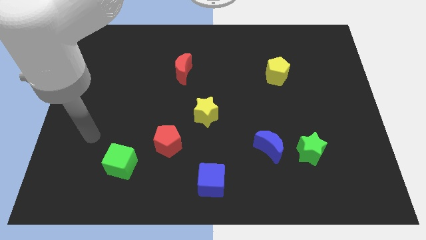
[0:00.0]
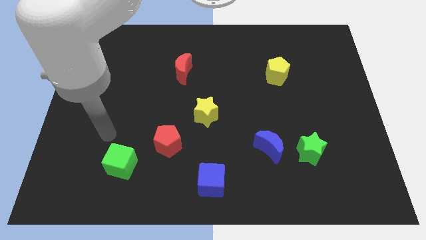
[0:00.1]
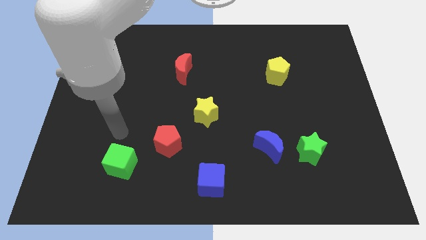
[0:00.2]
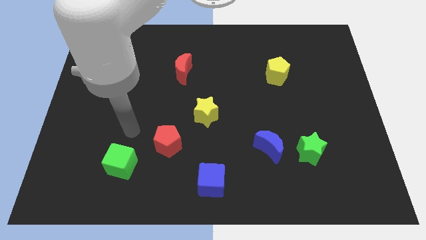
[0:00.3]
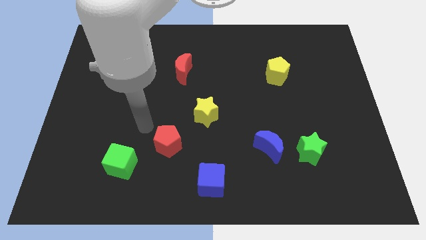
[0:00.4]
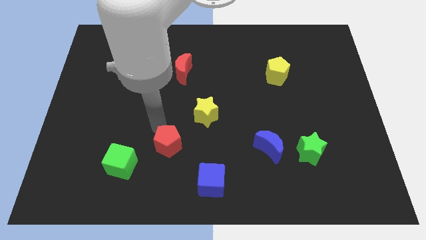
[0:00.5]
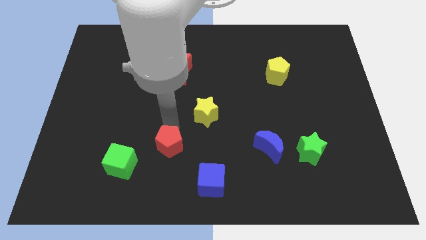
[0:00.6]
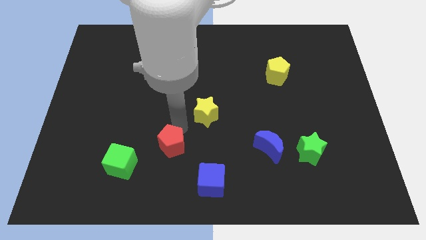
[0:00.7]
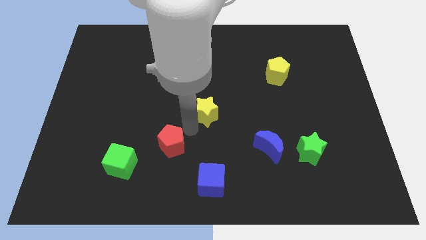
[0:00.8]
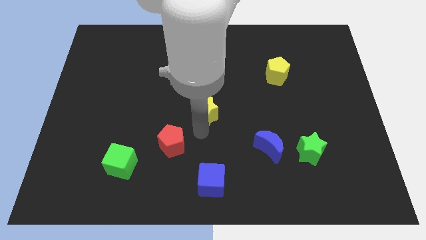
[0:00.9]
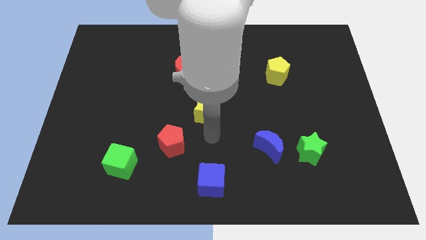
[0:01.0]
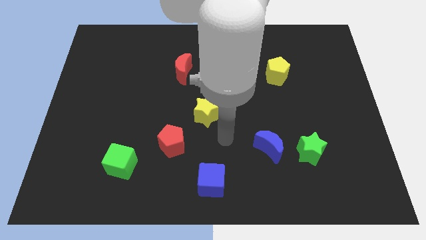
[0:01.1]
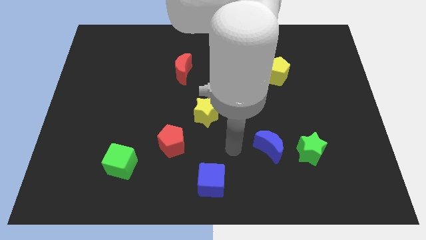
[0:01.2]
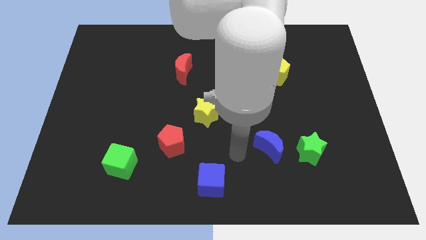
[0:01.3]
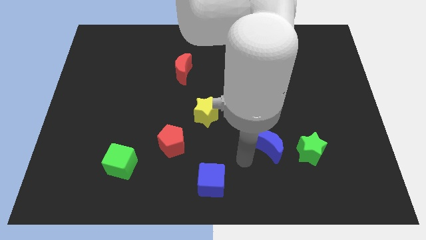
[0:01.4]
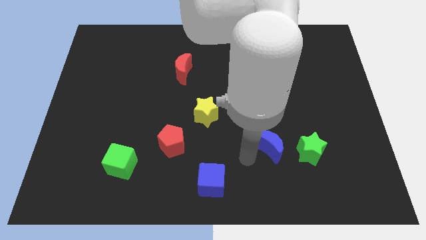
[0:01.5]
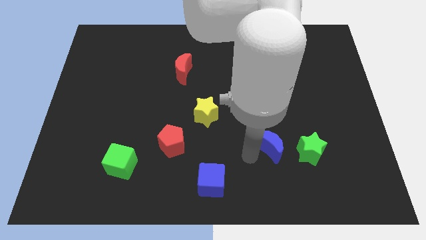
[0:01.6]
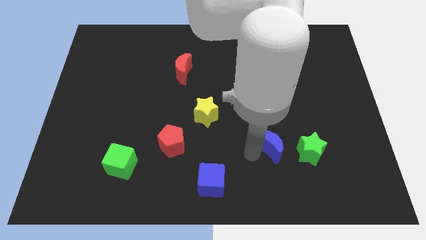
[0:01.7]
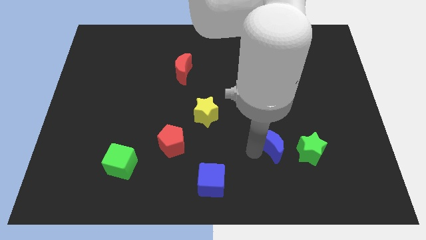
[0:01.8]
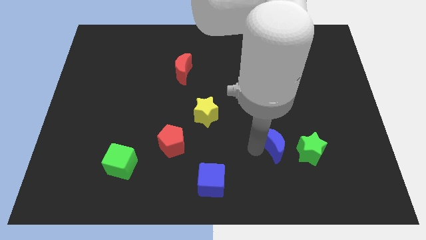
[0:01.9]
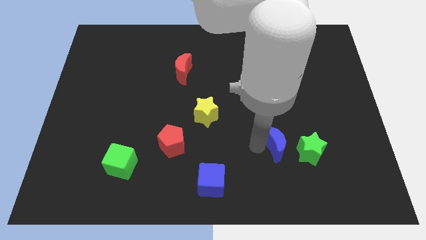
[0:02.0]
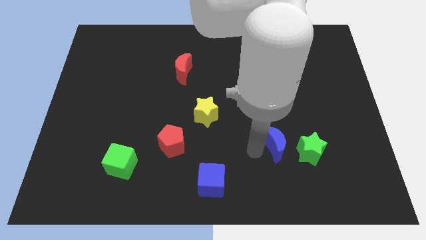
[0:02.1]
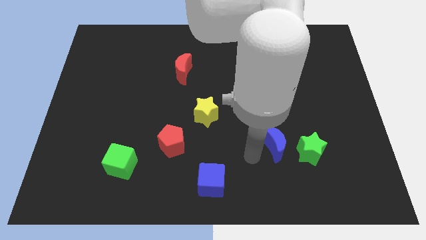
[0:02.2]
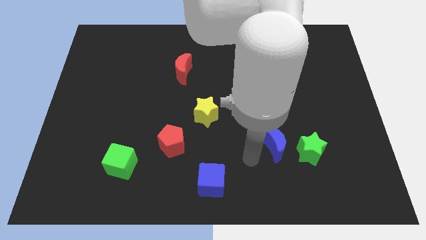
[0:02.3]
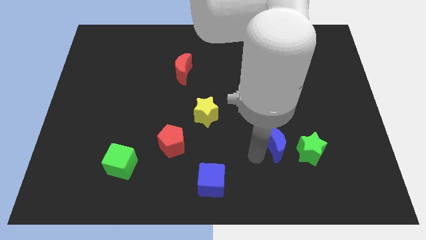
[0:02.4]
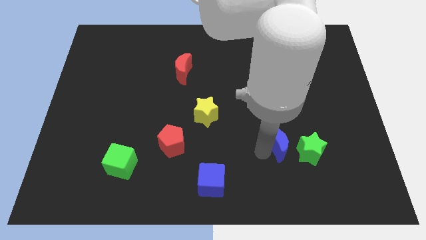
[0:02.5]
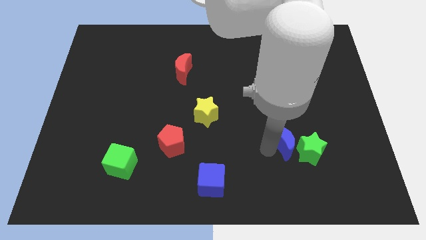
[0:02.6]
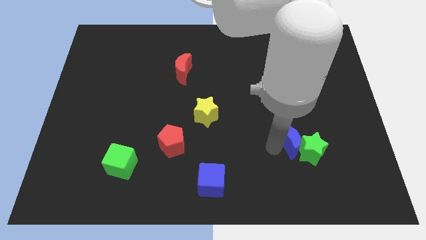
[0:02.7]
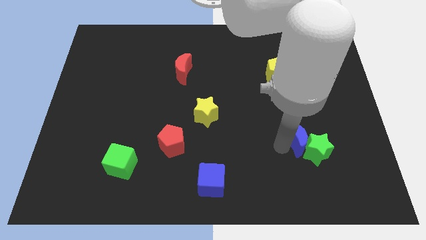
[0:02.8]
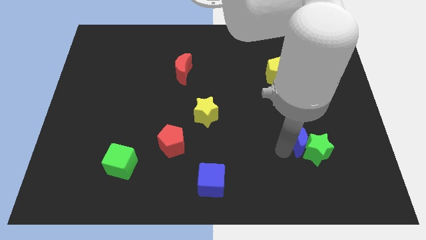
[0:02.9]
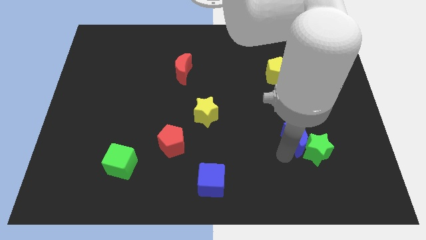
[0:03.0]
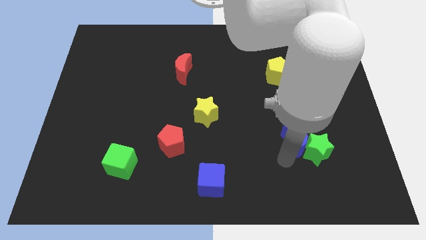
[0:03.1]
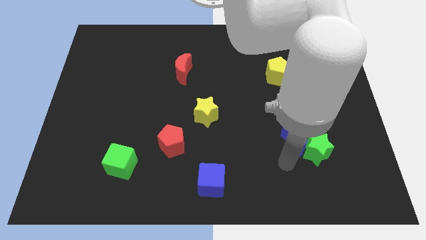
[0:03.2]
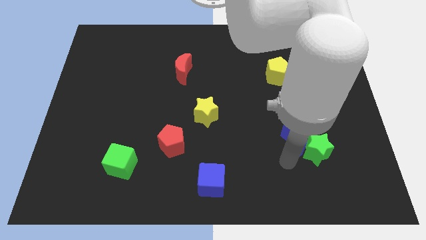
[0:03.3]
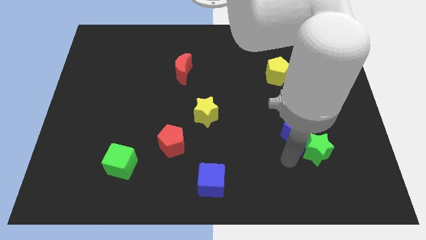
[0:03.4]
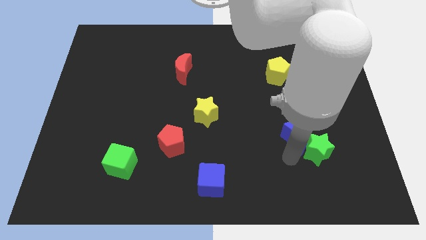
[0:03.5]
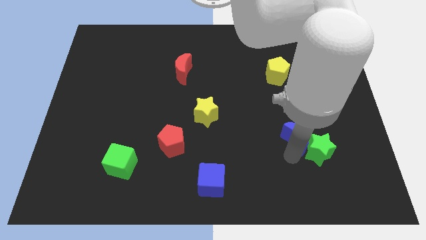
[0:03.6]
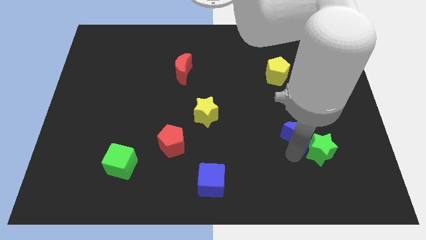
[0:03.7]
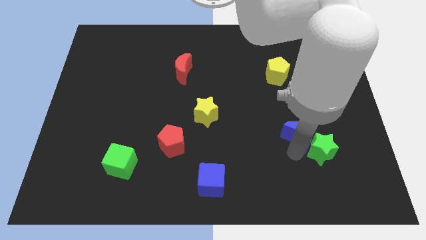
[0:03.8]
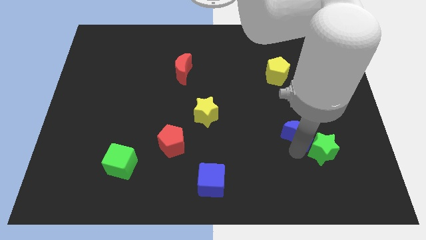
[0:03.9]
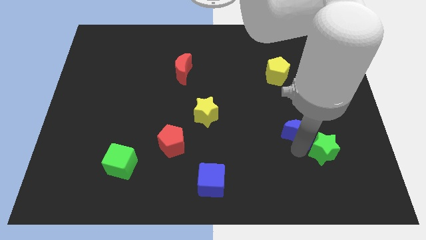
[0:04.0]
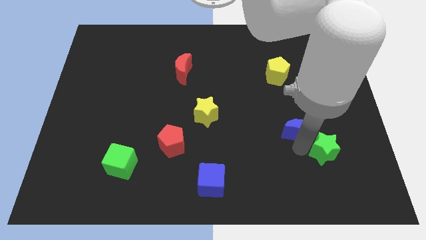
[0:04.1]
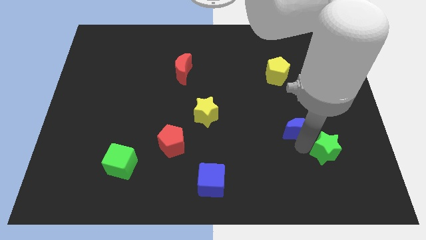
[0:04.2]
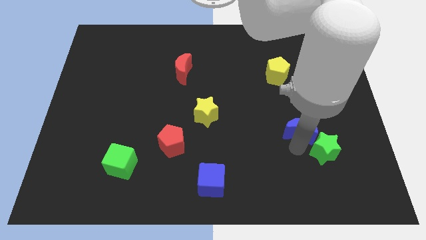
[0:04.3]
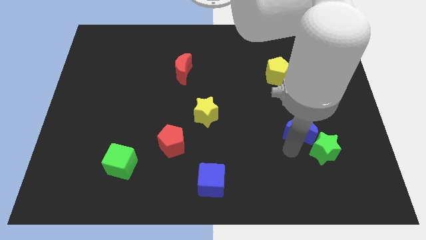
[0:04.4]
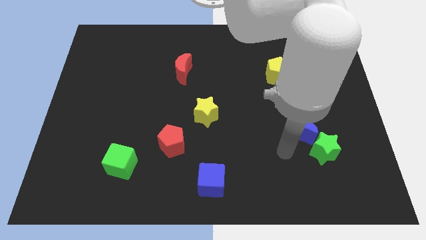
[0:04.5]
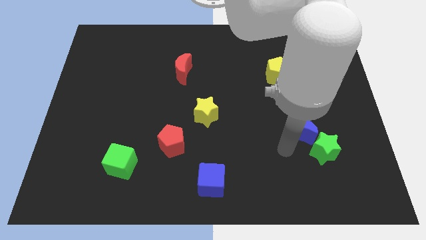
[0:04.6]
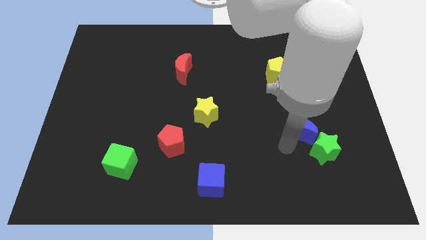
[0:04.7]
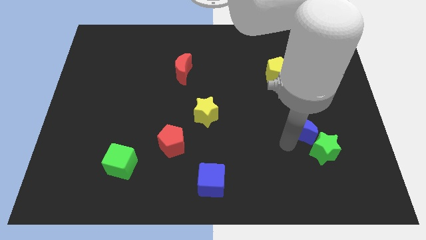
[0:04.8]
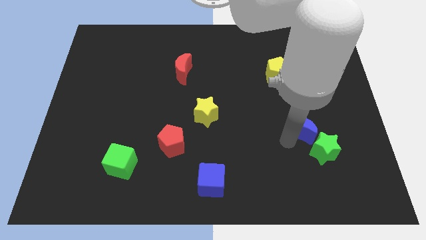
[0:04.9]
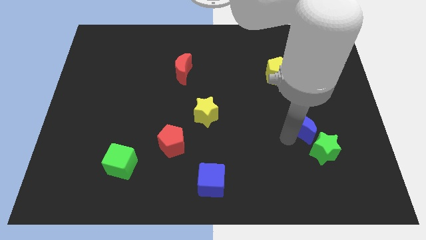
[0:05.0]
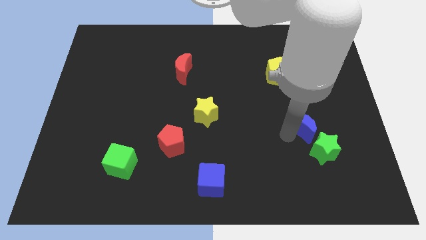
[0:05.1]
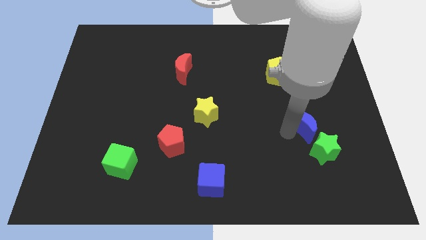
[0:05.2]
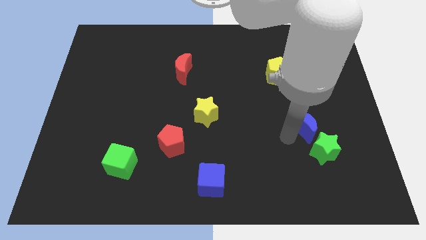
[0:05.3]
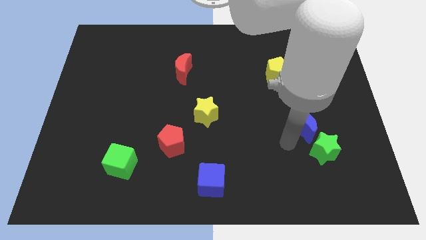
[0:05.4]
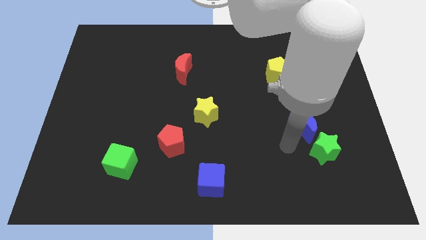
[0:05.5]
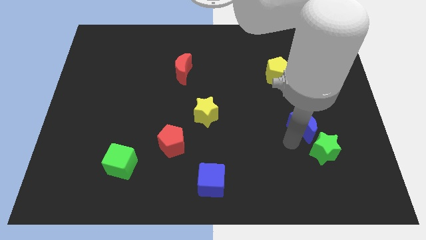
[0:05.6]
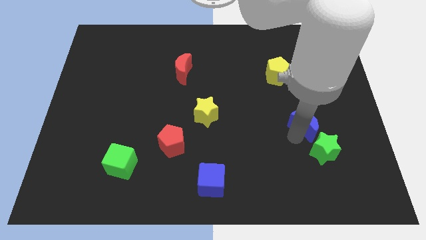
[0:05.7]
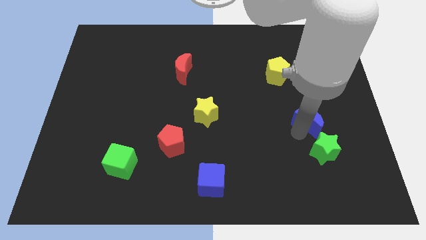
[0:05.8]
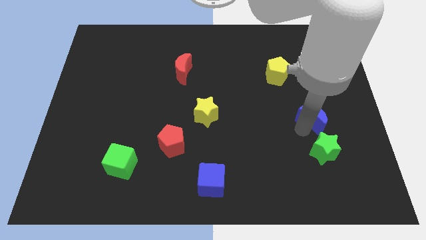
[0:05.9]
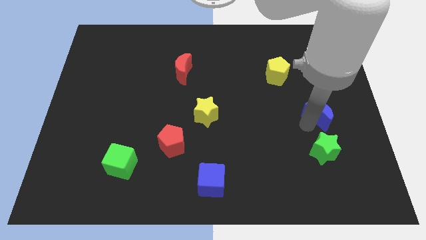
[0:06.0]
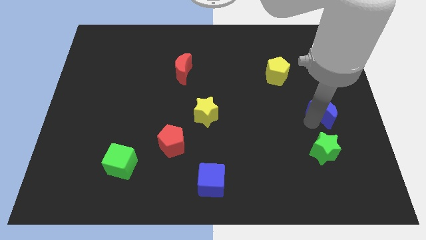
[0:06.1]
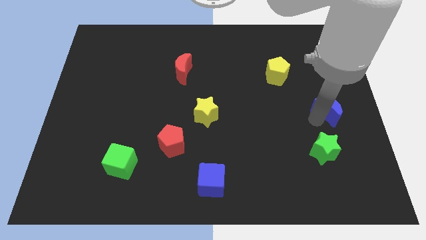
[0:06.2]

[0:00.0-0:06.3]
push the blue moon to the right side

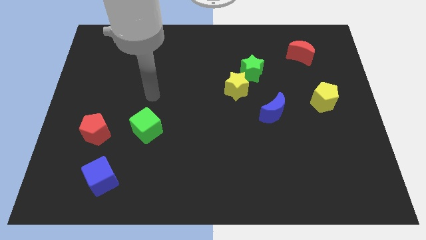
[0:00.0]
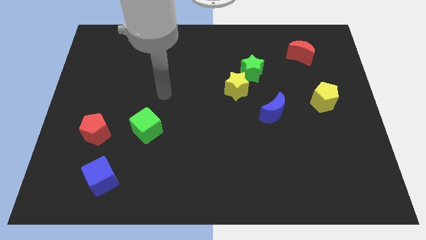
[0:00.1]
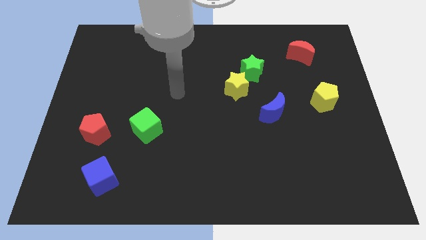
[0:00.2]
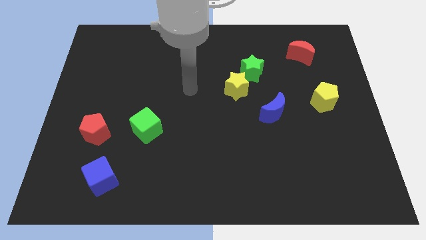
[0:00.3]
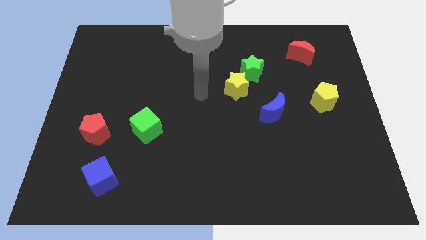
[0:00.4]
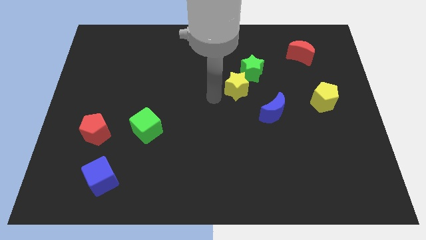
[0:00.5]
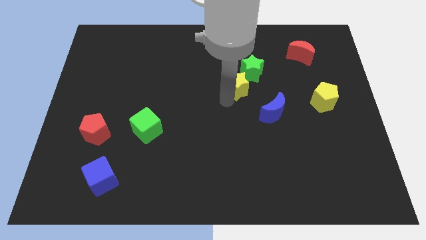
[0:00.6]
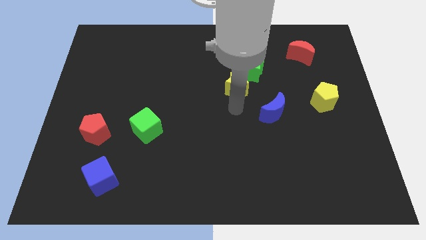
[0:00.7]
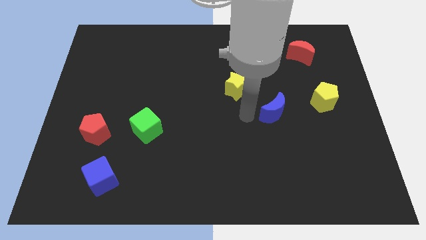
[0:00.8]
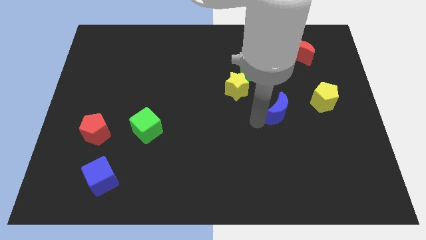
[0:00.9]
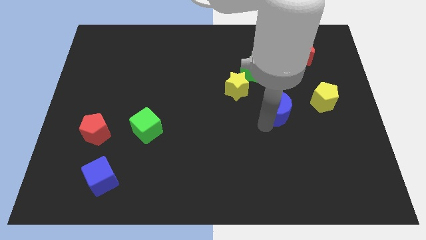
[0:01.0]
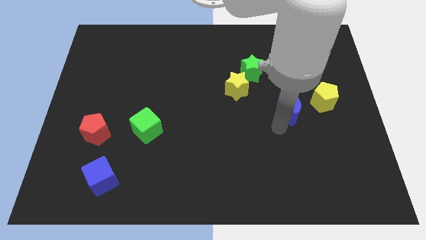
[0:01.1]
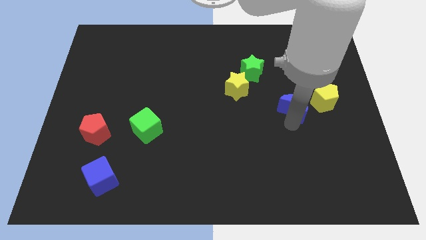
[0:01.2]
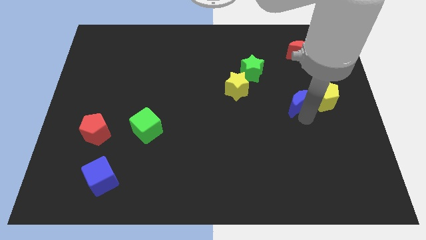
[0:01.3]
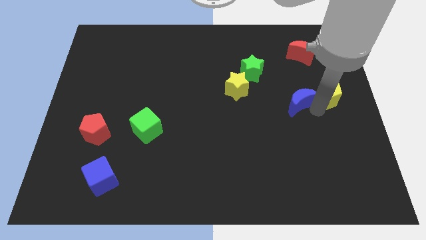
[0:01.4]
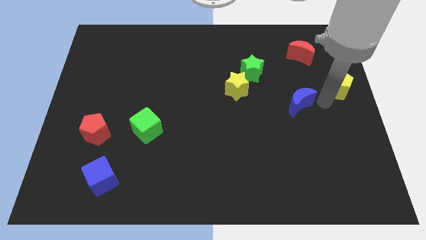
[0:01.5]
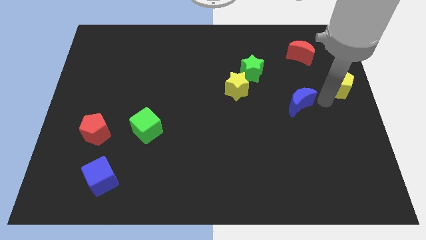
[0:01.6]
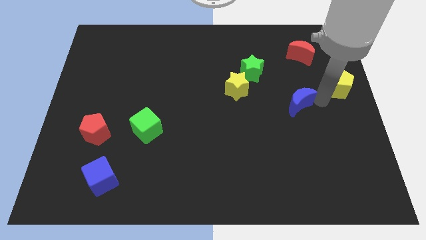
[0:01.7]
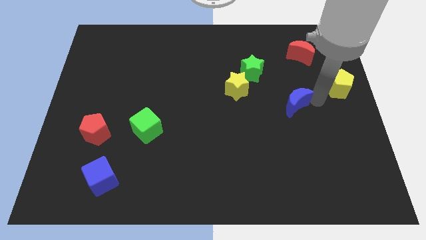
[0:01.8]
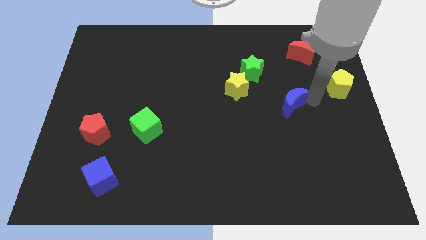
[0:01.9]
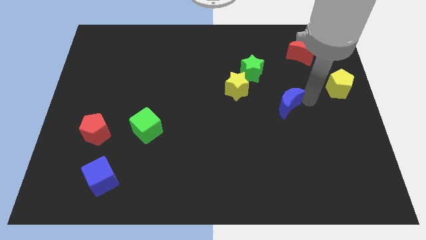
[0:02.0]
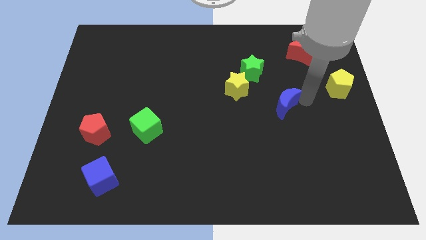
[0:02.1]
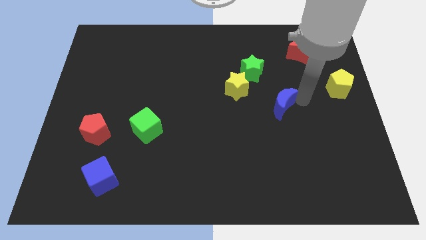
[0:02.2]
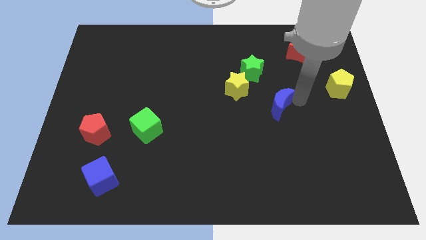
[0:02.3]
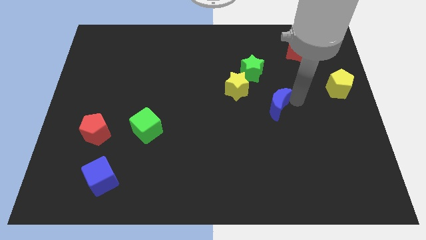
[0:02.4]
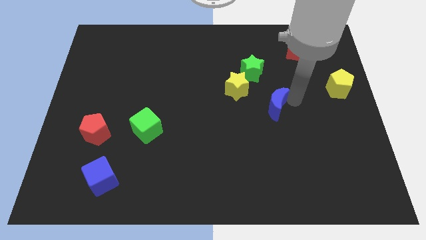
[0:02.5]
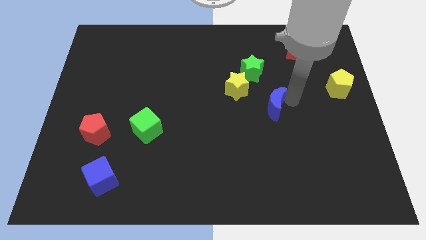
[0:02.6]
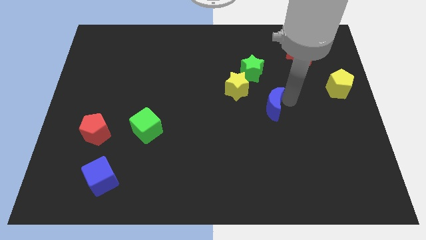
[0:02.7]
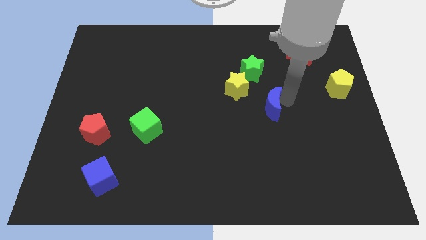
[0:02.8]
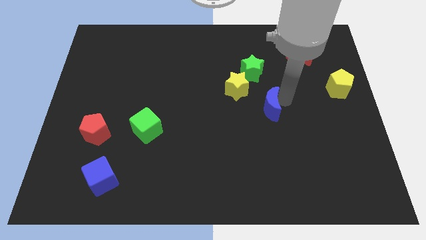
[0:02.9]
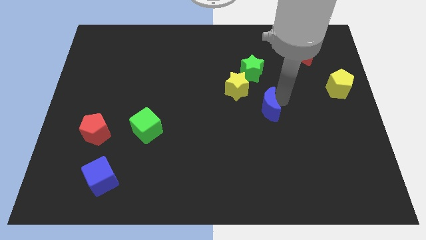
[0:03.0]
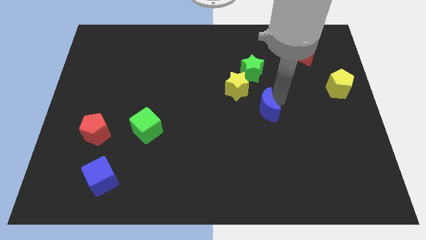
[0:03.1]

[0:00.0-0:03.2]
slide the blue moon to the middle of the board
